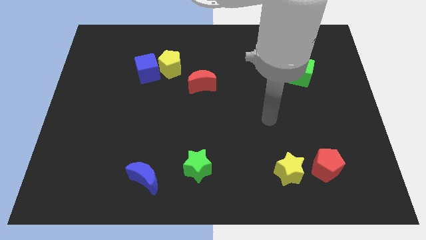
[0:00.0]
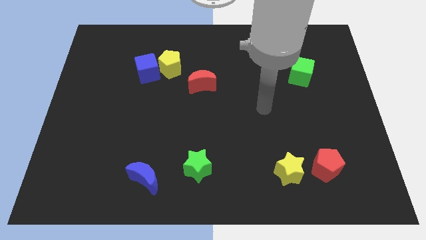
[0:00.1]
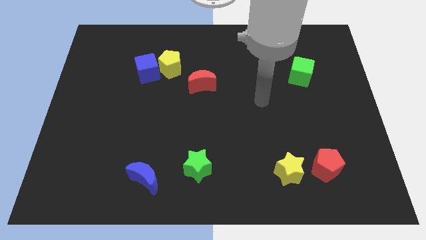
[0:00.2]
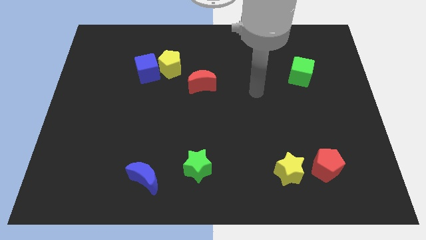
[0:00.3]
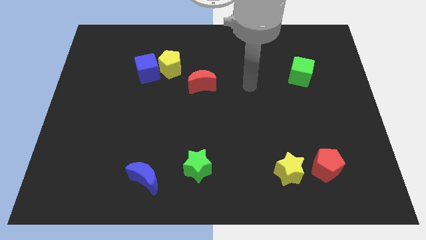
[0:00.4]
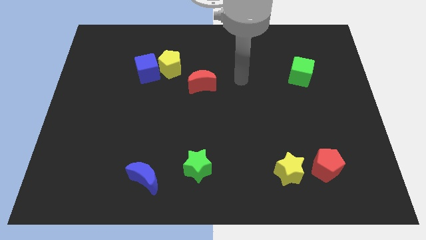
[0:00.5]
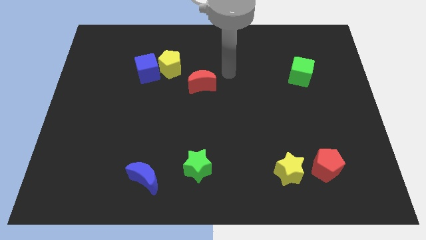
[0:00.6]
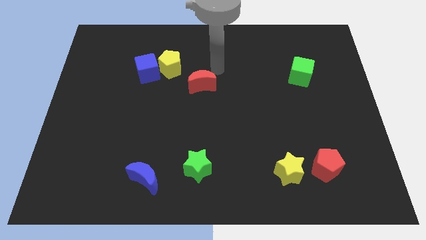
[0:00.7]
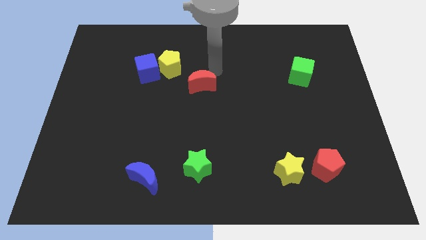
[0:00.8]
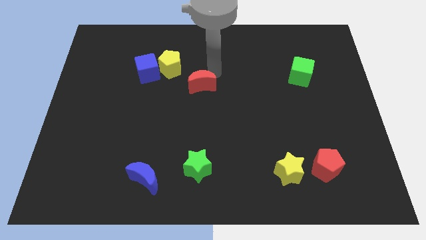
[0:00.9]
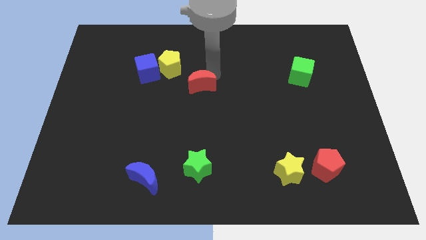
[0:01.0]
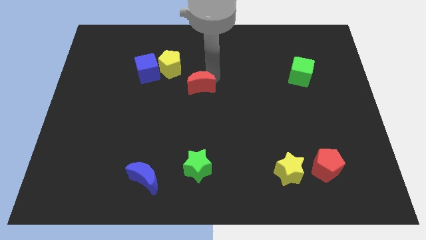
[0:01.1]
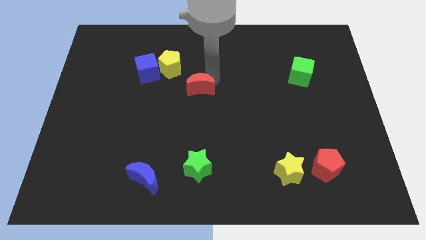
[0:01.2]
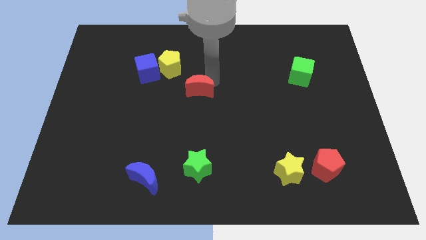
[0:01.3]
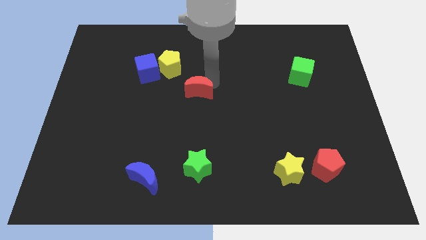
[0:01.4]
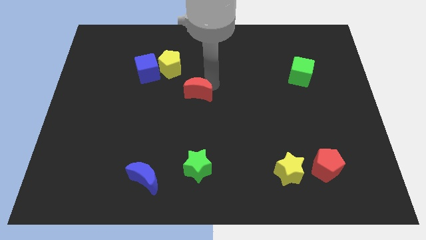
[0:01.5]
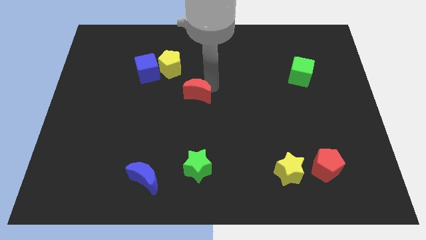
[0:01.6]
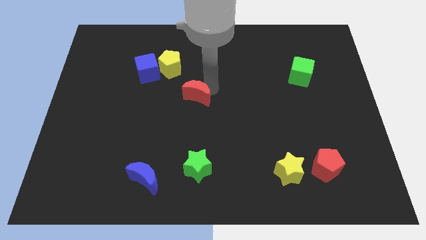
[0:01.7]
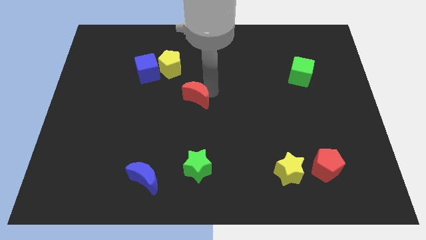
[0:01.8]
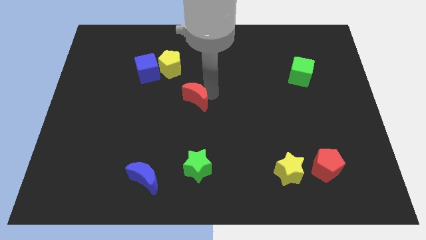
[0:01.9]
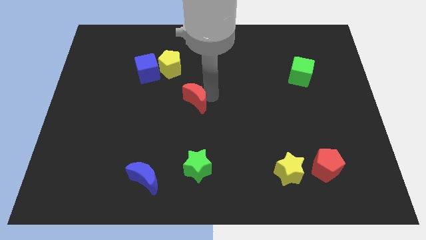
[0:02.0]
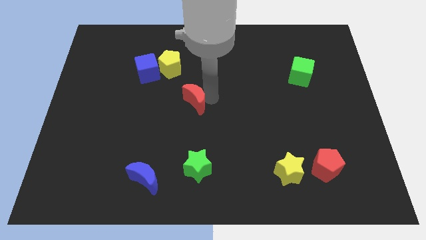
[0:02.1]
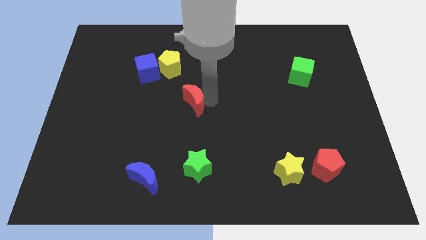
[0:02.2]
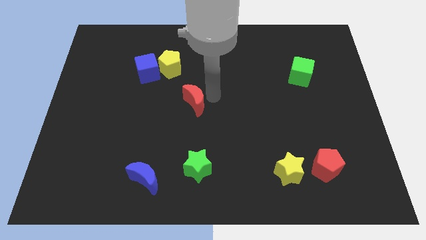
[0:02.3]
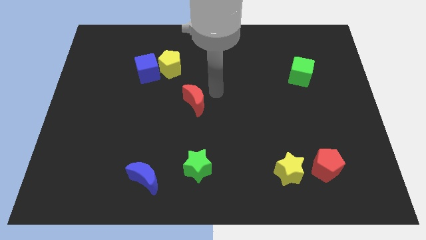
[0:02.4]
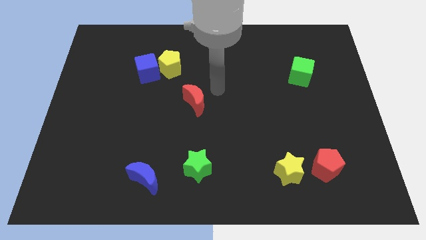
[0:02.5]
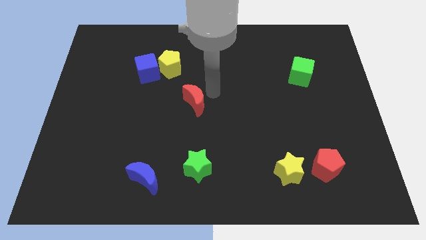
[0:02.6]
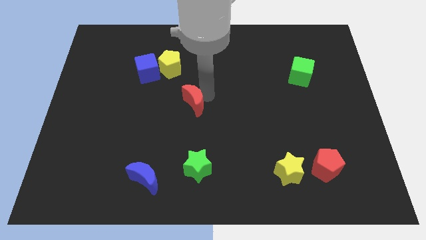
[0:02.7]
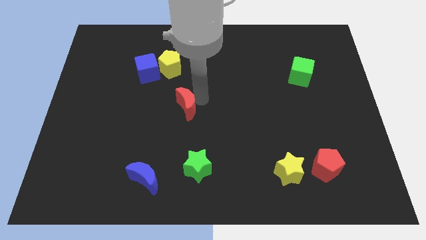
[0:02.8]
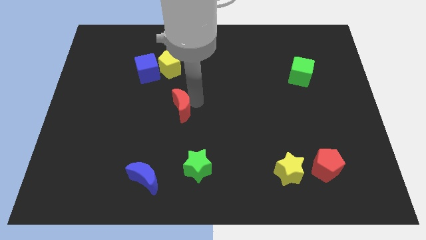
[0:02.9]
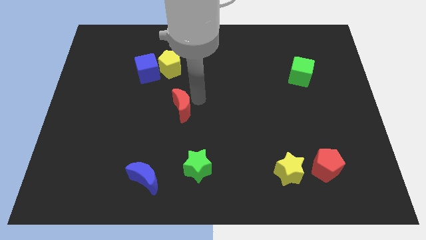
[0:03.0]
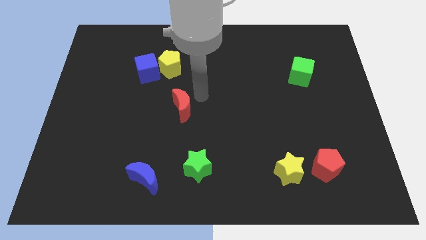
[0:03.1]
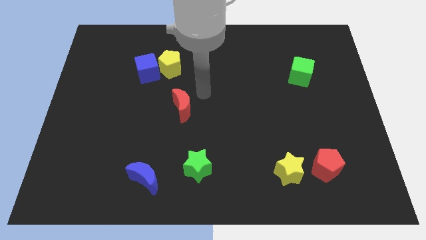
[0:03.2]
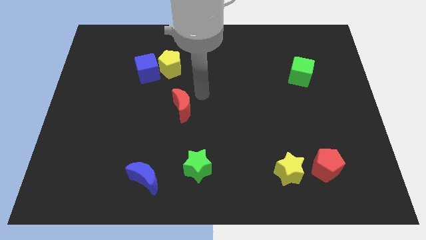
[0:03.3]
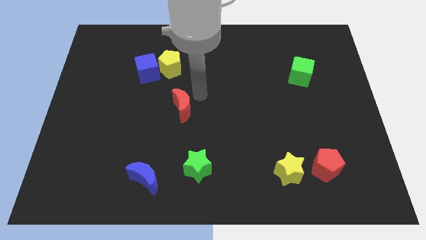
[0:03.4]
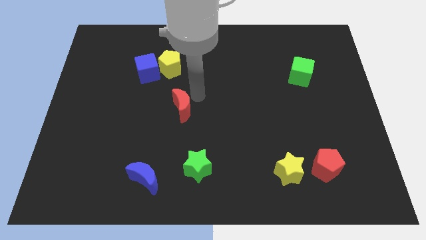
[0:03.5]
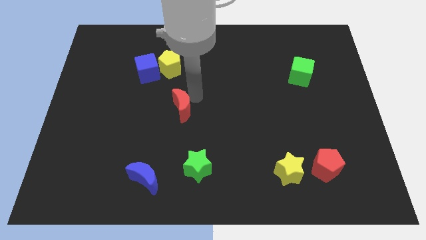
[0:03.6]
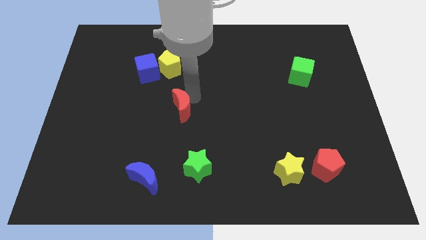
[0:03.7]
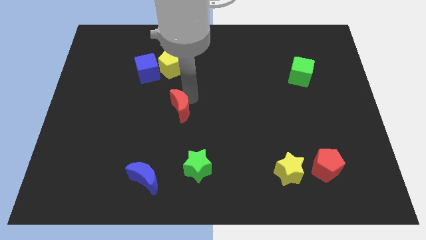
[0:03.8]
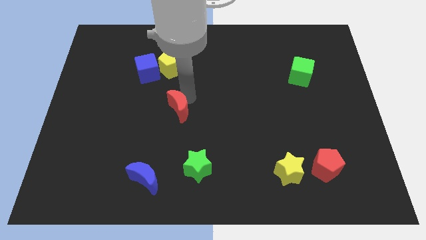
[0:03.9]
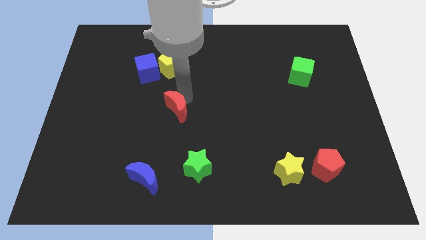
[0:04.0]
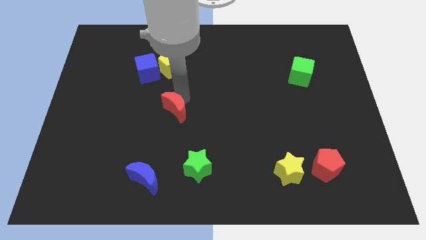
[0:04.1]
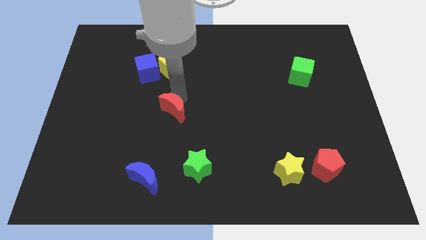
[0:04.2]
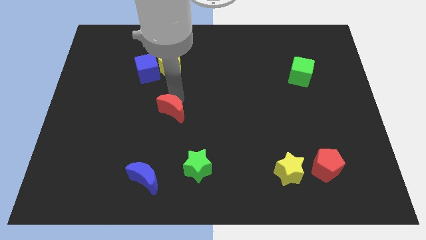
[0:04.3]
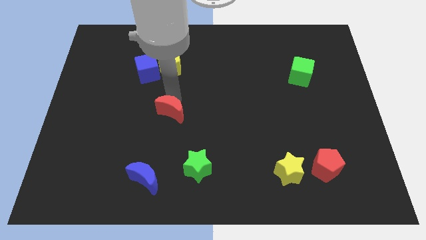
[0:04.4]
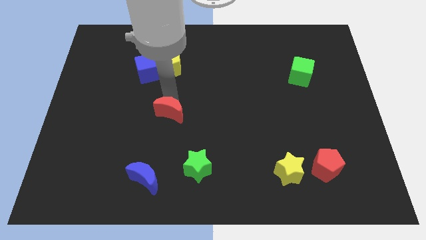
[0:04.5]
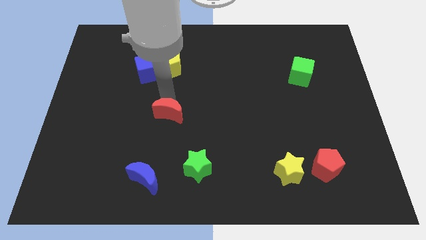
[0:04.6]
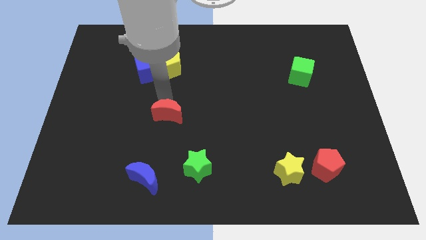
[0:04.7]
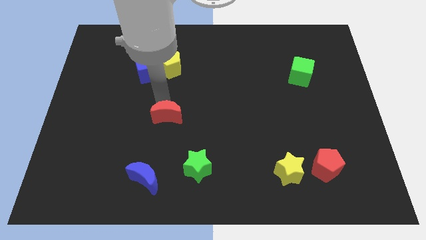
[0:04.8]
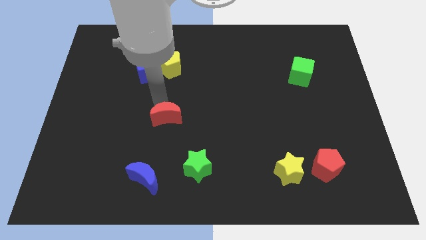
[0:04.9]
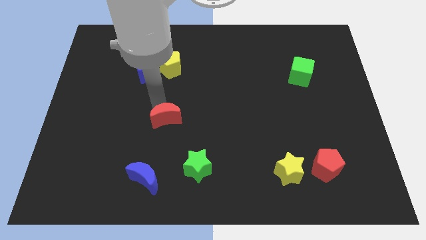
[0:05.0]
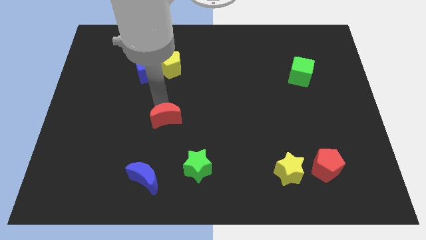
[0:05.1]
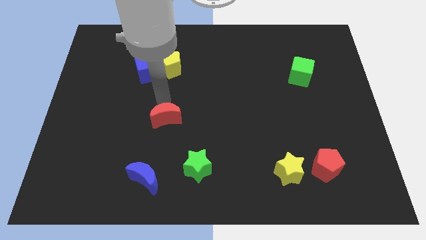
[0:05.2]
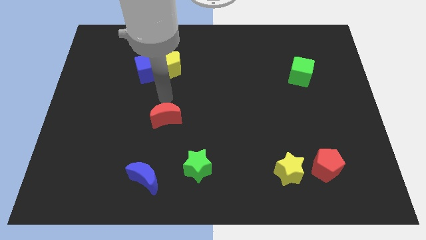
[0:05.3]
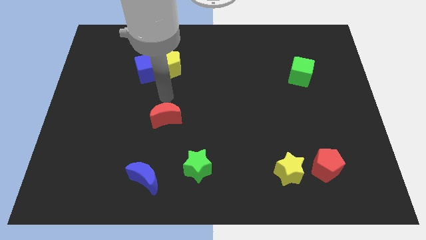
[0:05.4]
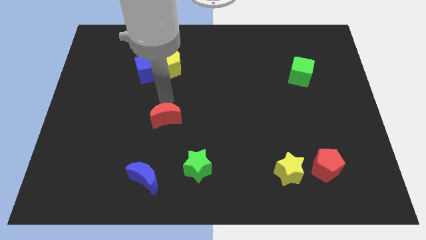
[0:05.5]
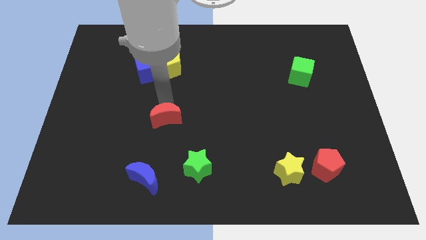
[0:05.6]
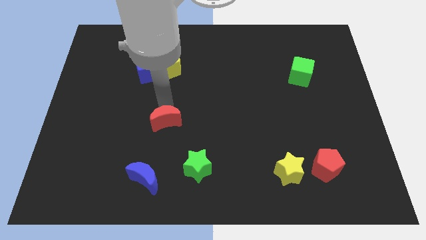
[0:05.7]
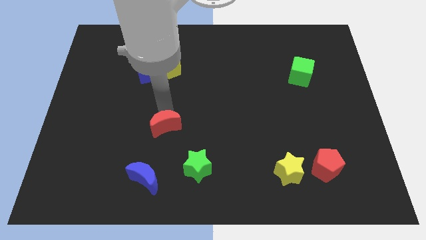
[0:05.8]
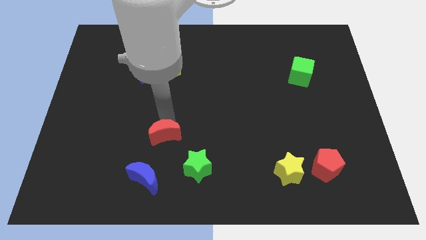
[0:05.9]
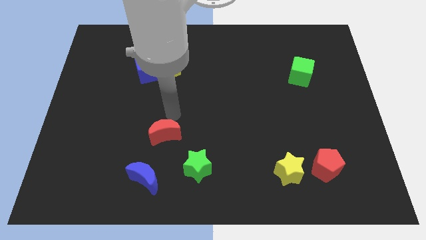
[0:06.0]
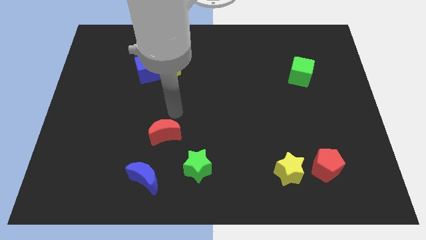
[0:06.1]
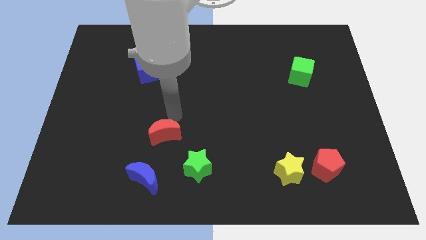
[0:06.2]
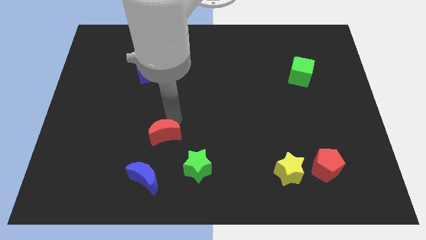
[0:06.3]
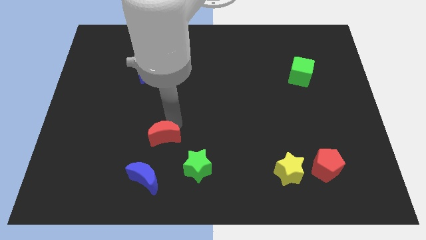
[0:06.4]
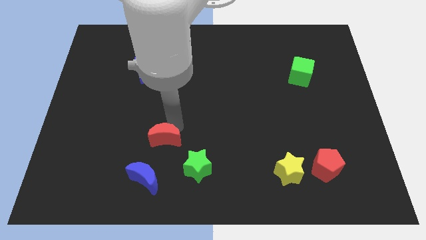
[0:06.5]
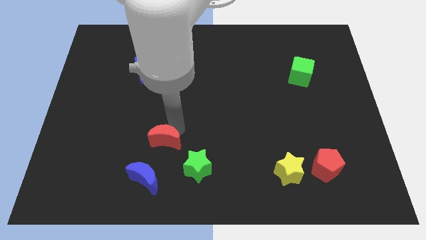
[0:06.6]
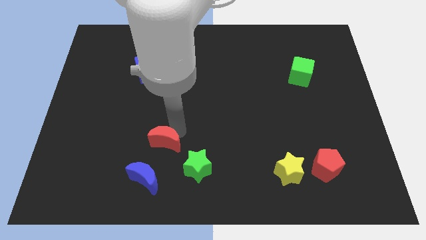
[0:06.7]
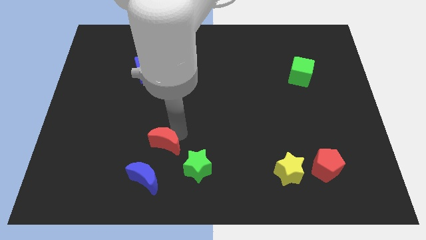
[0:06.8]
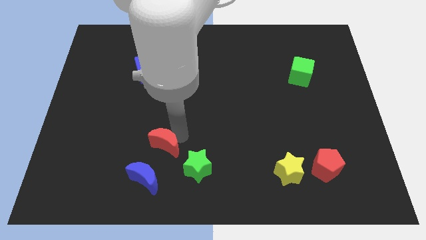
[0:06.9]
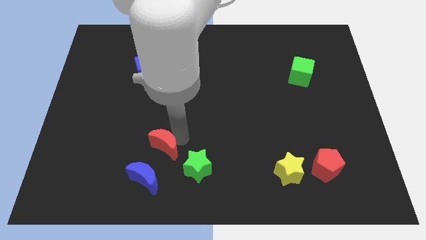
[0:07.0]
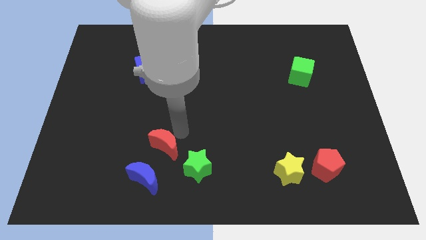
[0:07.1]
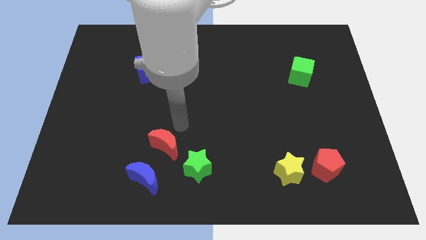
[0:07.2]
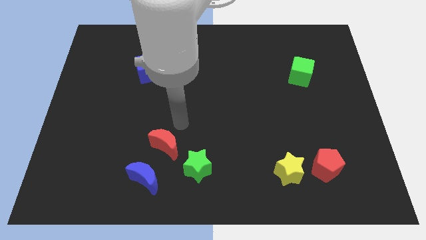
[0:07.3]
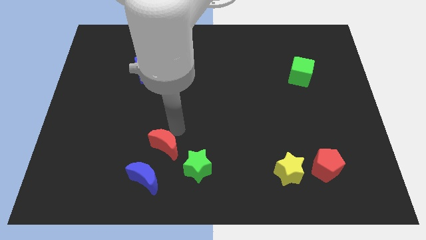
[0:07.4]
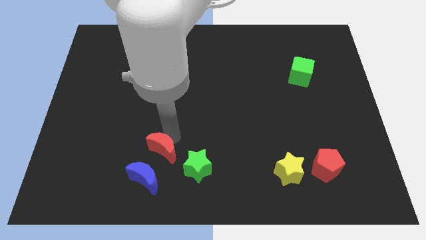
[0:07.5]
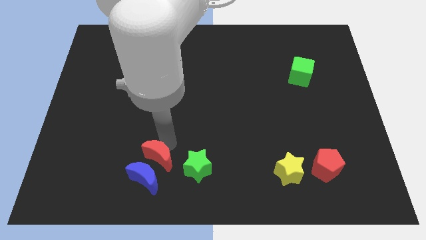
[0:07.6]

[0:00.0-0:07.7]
slide the red moon close to the blue moon
